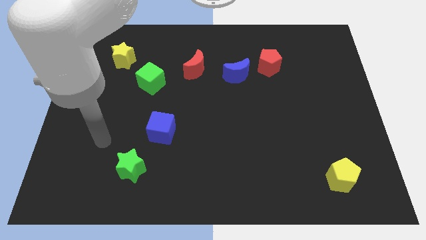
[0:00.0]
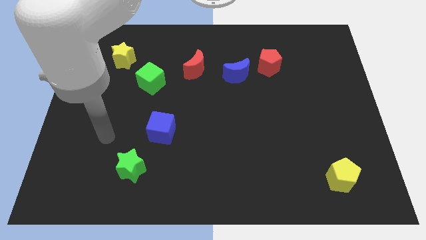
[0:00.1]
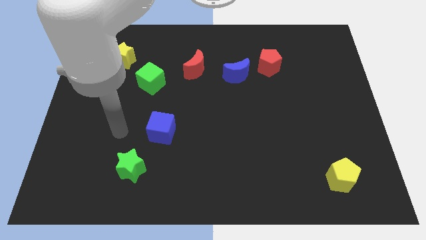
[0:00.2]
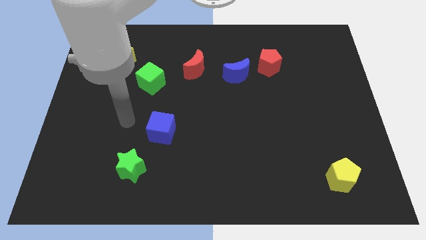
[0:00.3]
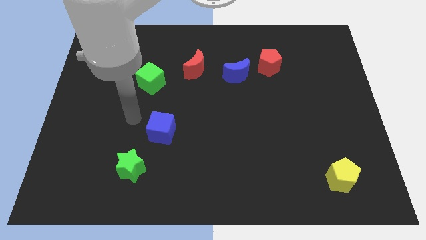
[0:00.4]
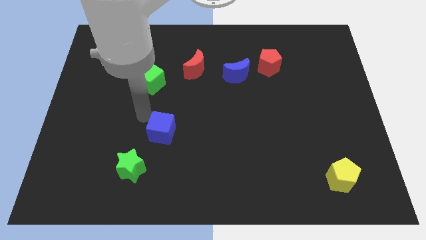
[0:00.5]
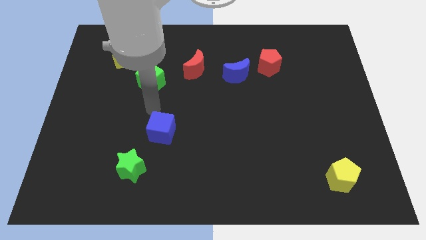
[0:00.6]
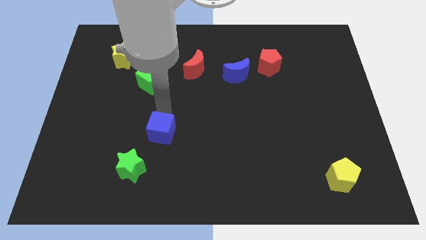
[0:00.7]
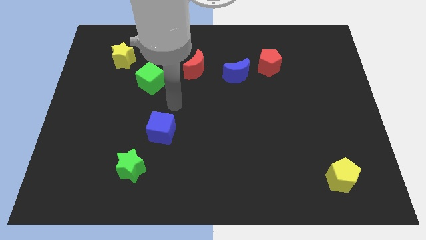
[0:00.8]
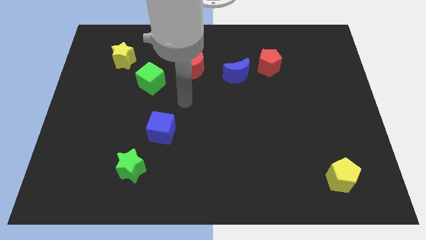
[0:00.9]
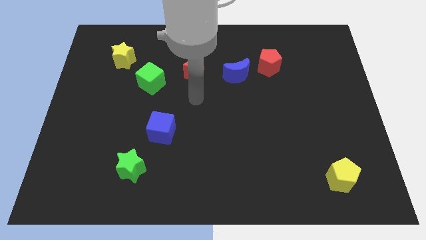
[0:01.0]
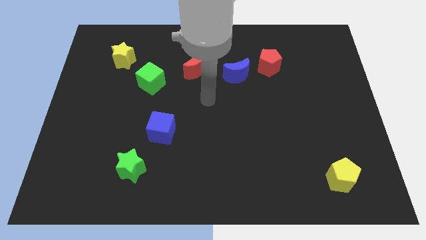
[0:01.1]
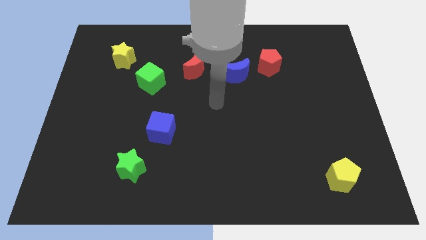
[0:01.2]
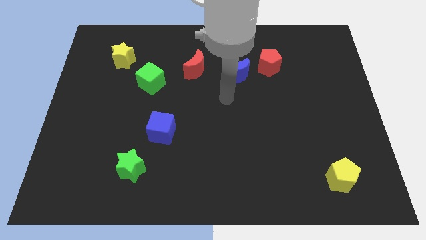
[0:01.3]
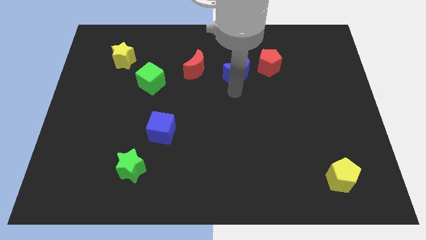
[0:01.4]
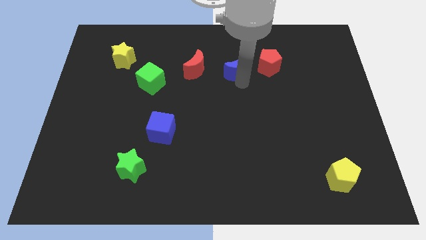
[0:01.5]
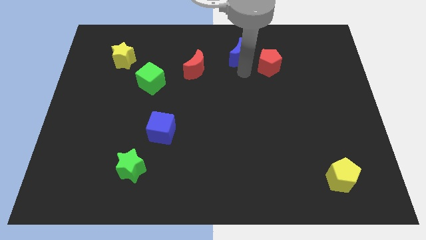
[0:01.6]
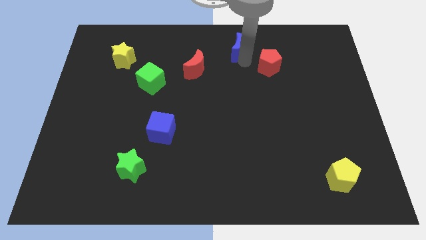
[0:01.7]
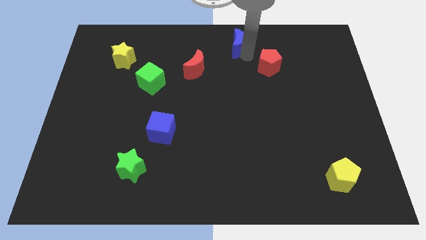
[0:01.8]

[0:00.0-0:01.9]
pull the red pentagon apart from the blue moon

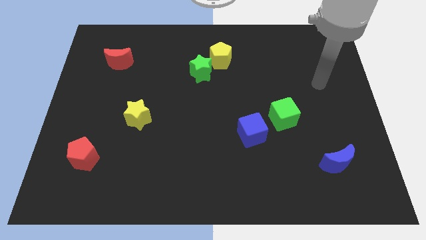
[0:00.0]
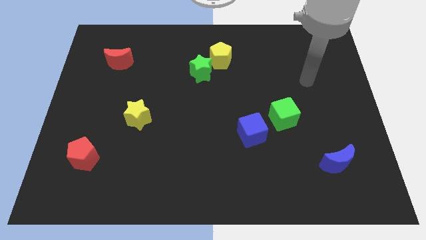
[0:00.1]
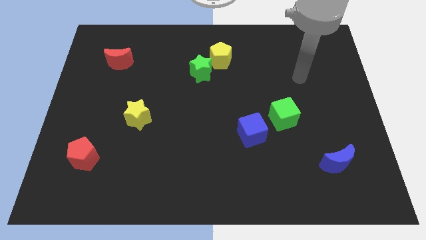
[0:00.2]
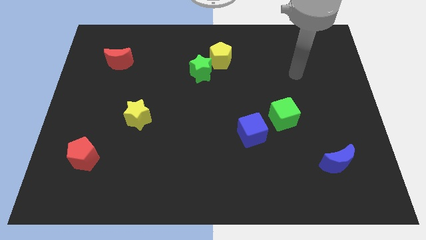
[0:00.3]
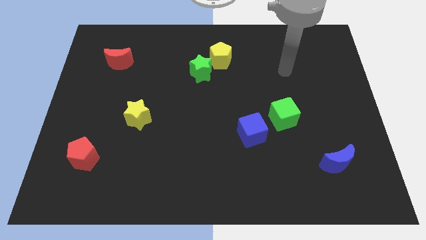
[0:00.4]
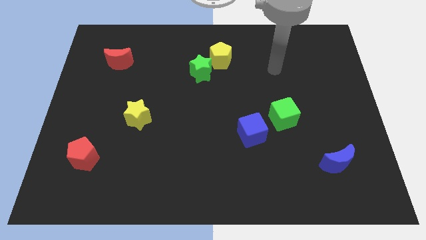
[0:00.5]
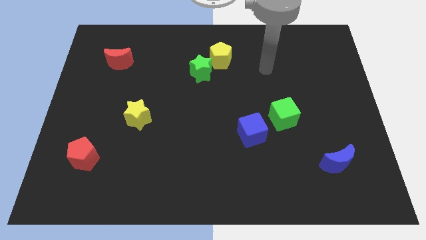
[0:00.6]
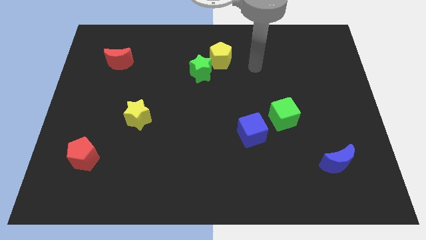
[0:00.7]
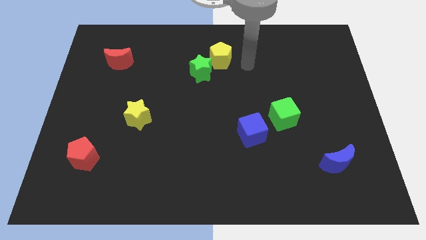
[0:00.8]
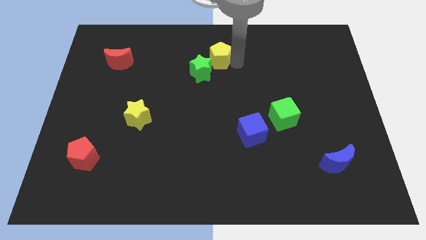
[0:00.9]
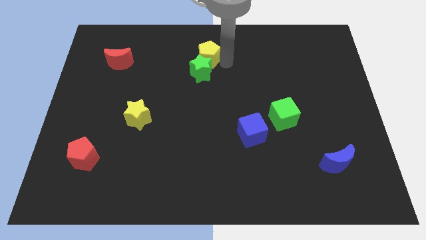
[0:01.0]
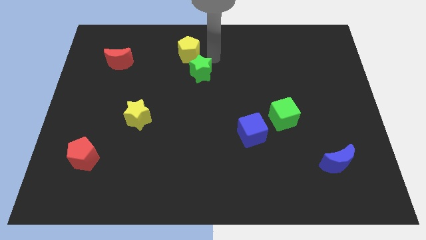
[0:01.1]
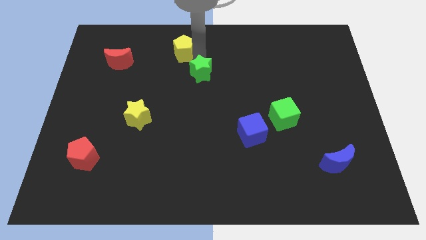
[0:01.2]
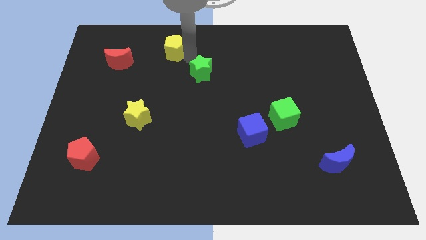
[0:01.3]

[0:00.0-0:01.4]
separate the green star from the yellow pentagon

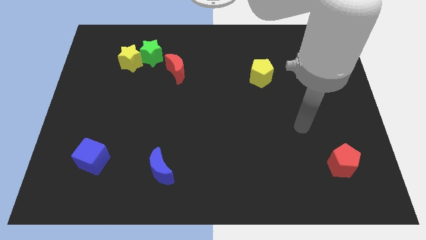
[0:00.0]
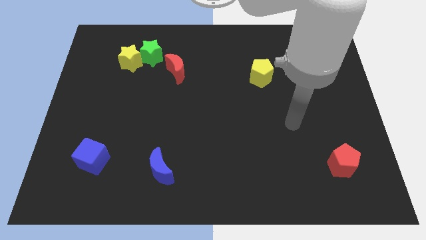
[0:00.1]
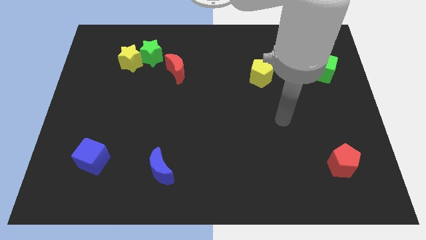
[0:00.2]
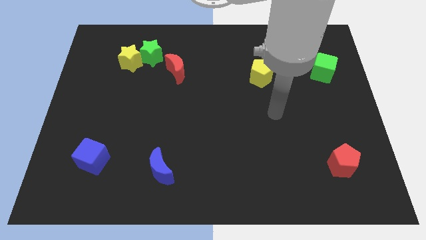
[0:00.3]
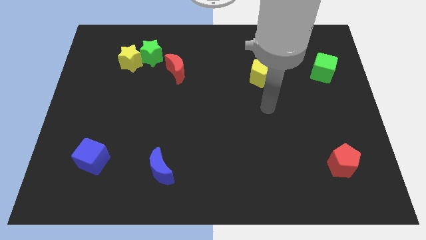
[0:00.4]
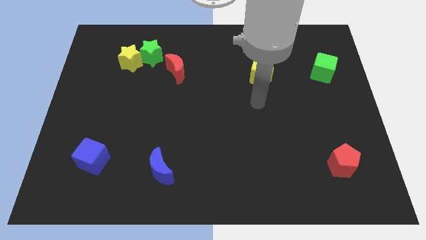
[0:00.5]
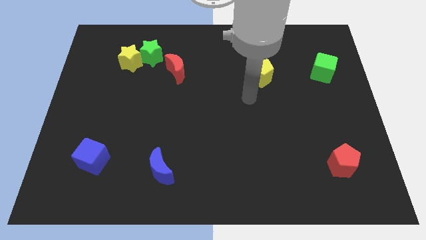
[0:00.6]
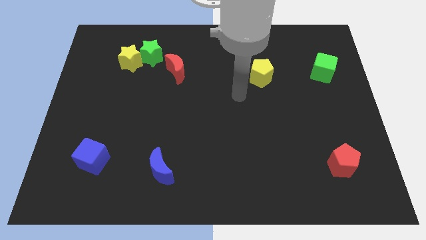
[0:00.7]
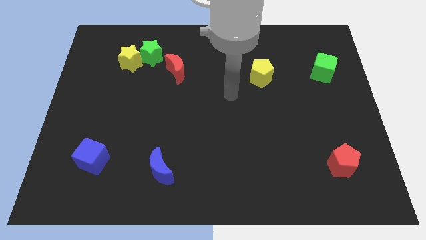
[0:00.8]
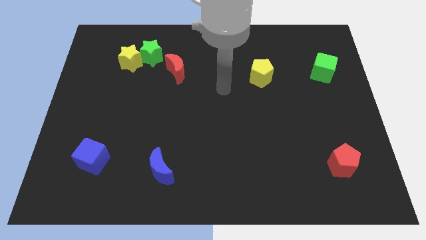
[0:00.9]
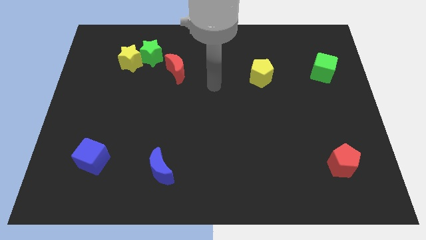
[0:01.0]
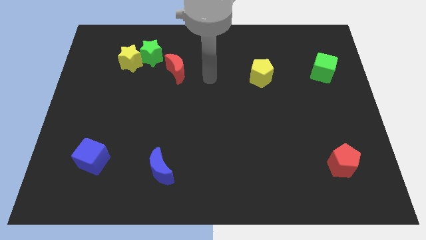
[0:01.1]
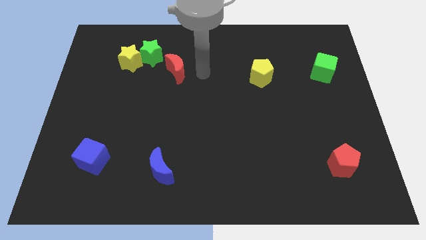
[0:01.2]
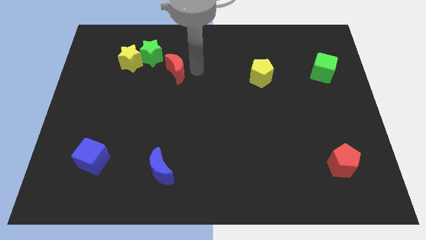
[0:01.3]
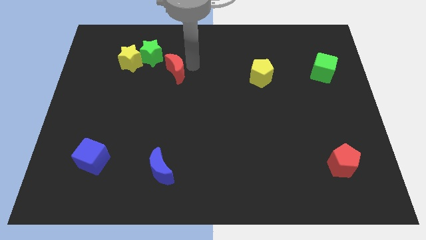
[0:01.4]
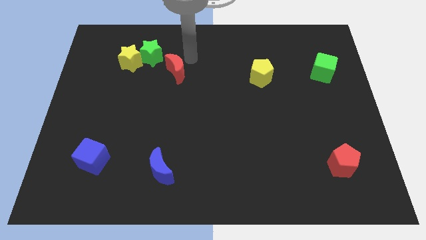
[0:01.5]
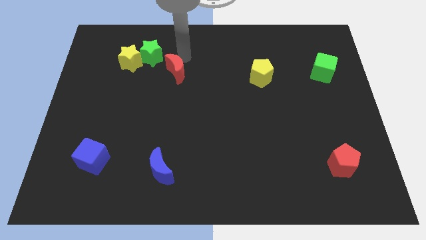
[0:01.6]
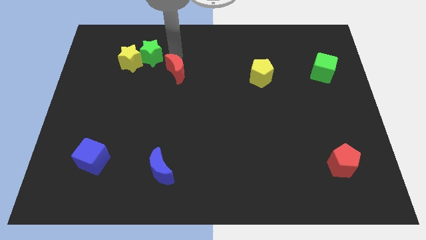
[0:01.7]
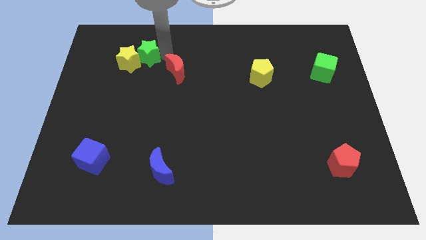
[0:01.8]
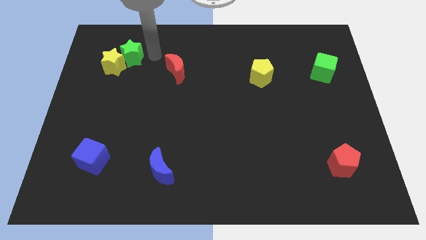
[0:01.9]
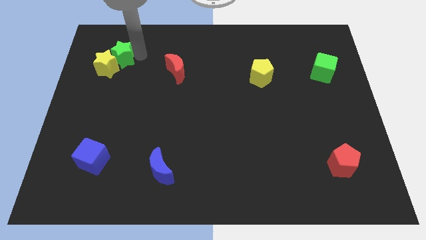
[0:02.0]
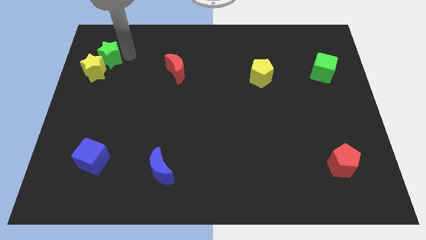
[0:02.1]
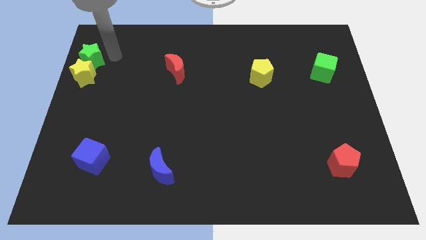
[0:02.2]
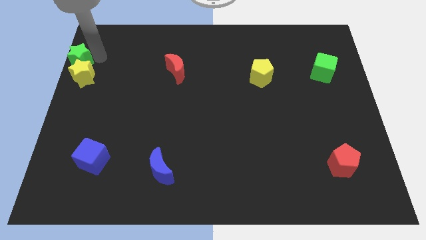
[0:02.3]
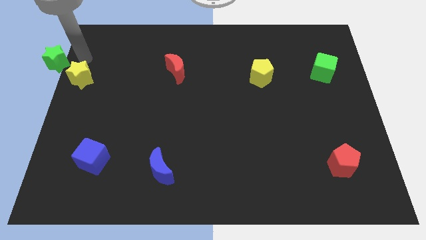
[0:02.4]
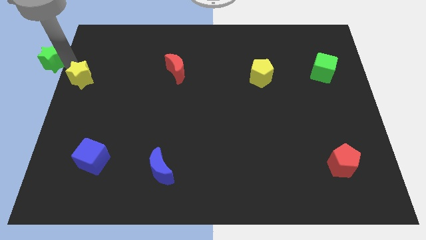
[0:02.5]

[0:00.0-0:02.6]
separate the yellow star from the green star

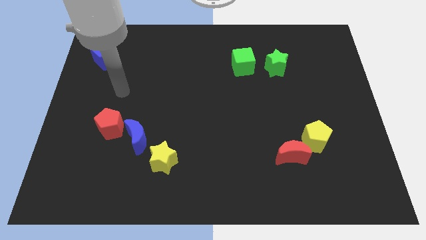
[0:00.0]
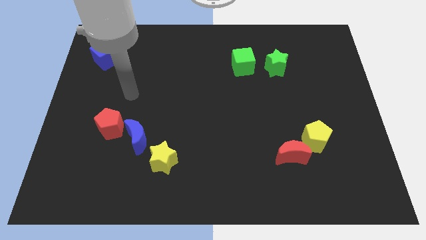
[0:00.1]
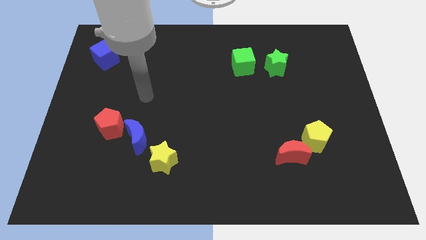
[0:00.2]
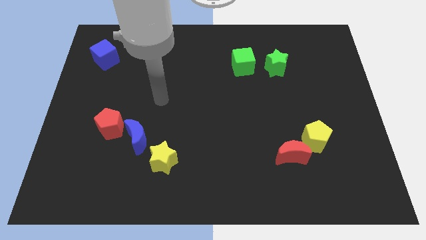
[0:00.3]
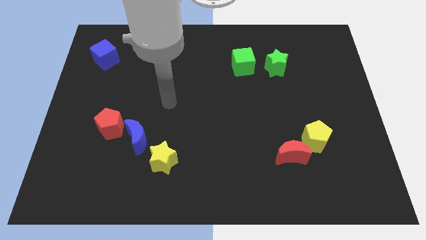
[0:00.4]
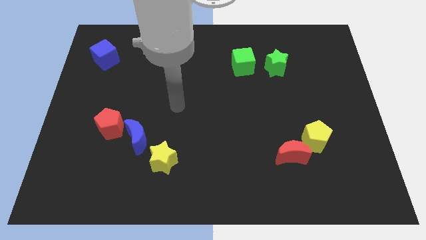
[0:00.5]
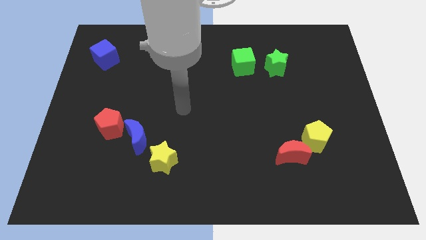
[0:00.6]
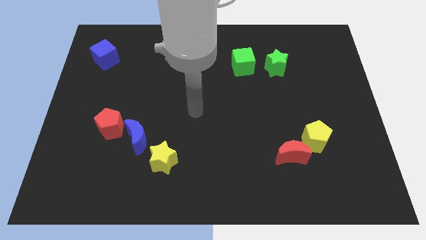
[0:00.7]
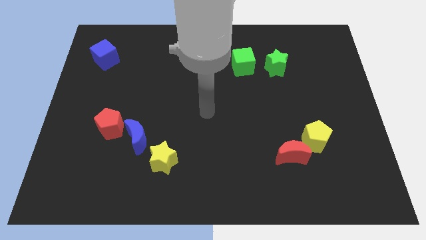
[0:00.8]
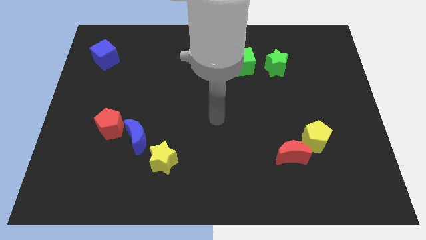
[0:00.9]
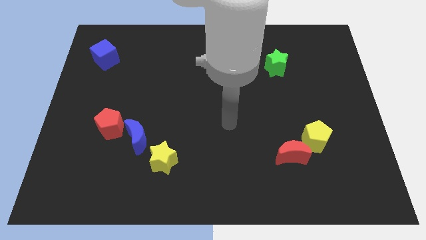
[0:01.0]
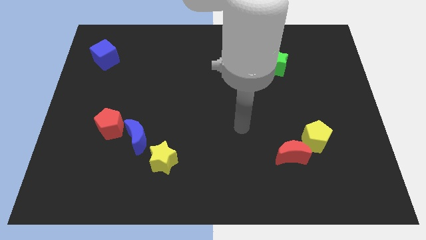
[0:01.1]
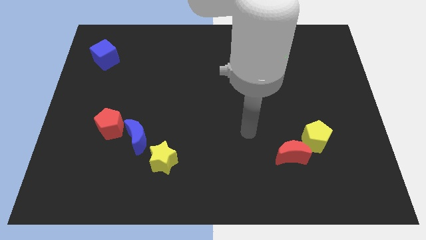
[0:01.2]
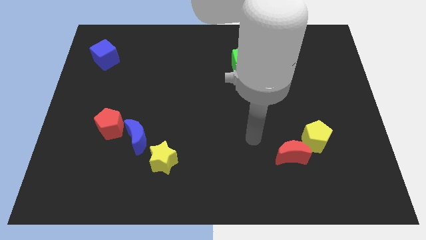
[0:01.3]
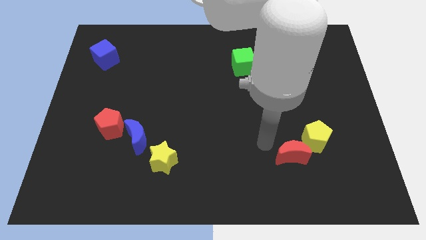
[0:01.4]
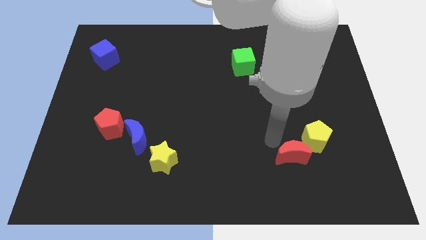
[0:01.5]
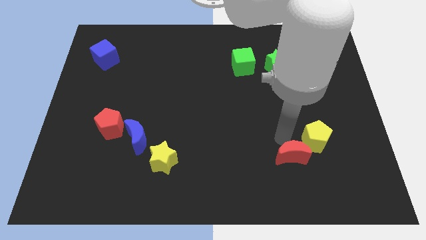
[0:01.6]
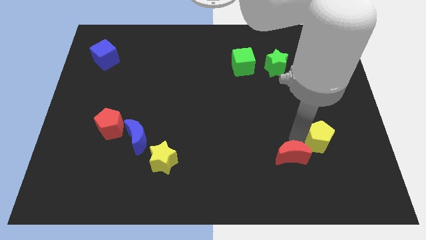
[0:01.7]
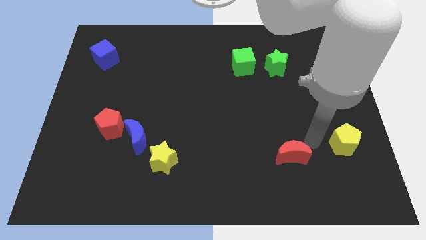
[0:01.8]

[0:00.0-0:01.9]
pull the red moon apart from the yellow pentagon

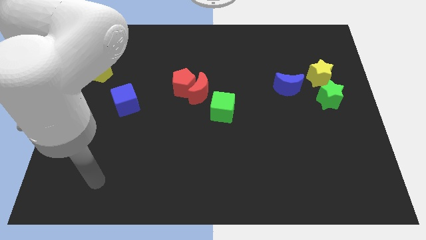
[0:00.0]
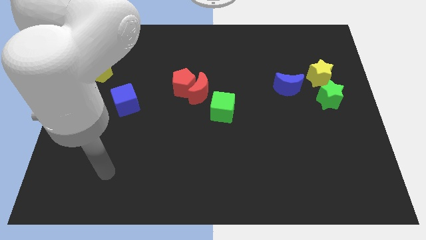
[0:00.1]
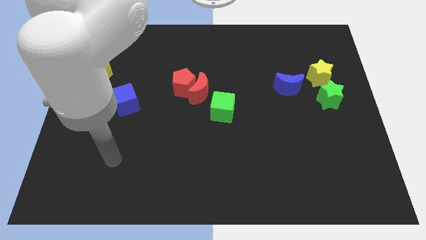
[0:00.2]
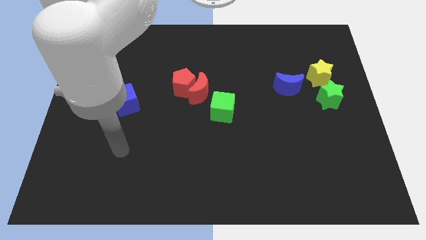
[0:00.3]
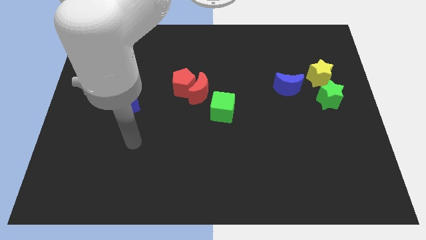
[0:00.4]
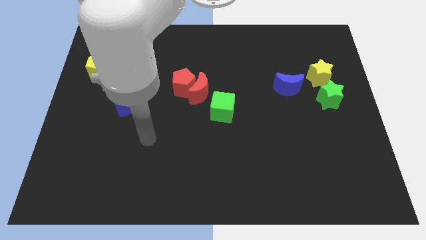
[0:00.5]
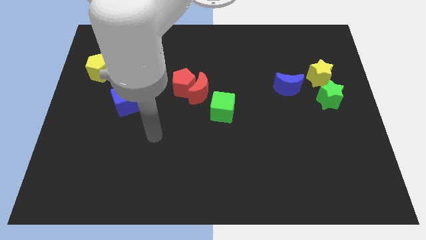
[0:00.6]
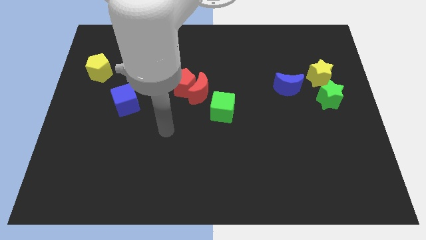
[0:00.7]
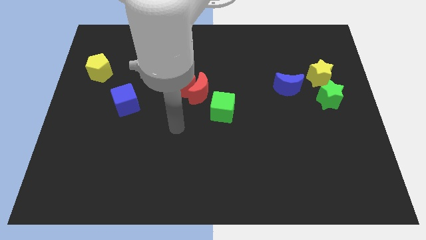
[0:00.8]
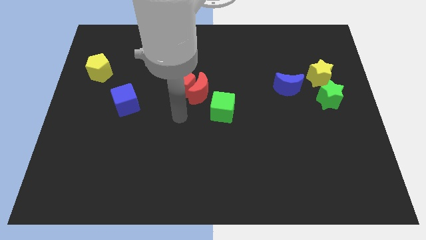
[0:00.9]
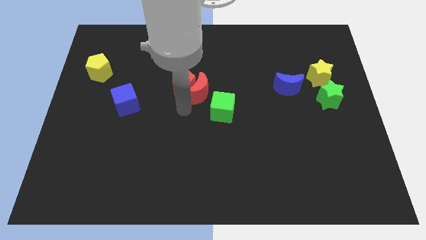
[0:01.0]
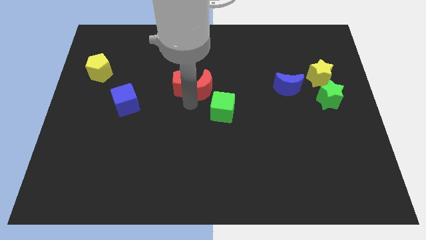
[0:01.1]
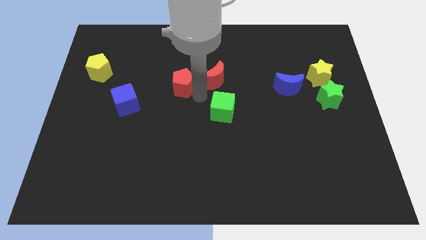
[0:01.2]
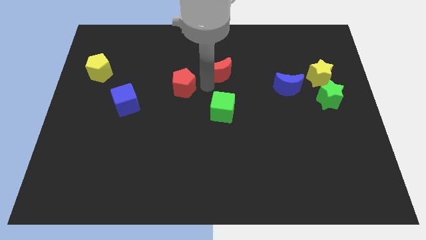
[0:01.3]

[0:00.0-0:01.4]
separate the red pentagon from the red moon
